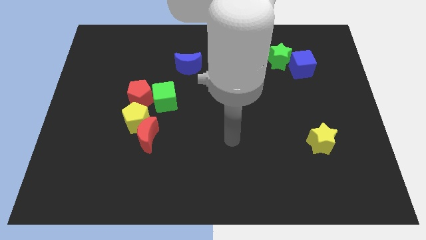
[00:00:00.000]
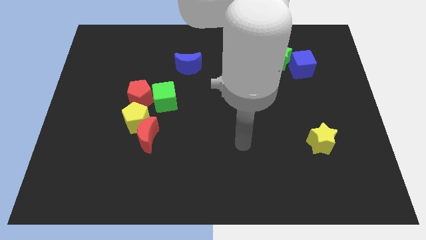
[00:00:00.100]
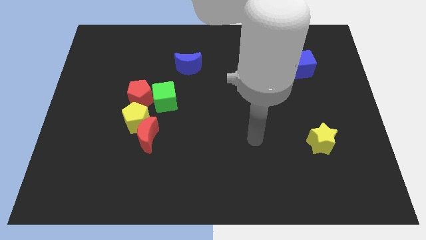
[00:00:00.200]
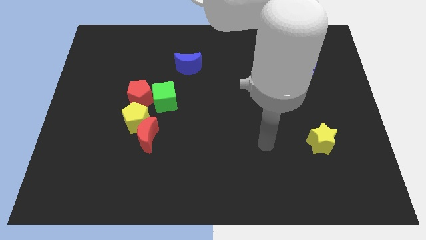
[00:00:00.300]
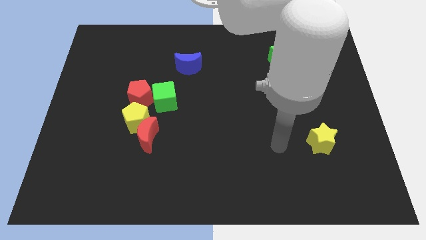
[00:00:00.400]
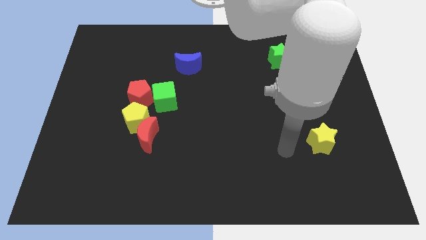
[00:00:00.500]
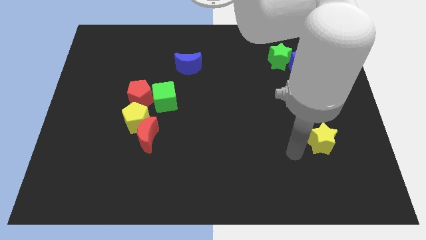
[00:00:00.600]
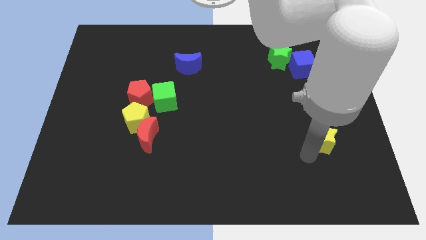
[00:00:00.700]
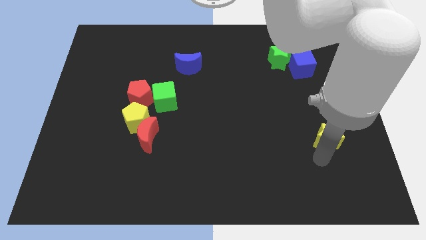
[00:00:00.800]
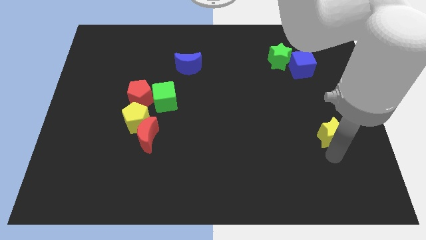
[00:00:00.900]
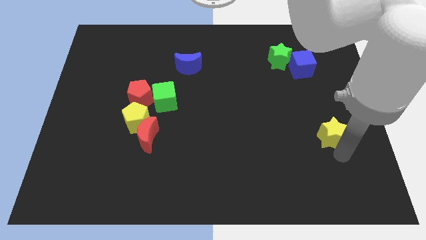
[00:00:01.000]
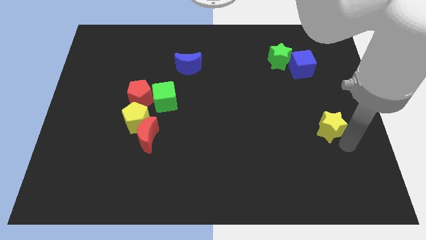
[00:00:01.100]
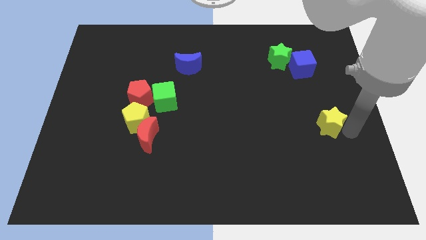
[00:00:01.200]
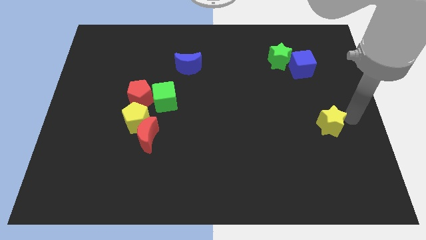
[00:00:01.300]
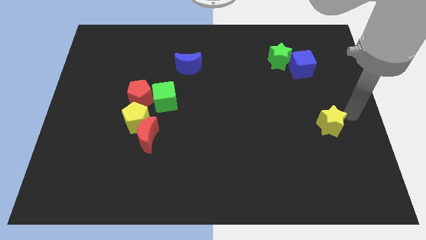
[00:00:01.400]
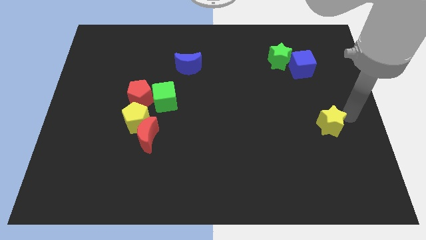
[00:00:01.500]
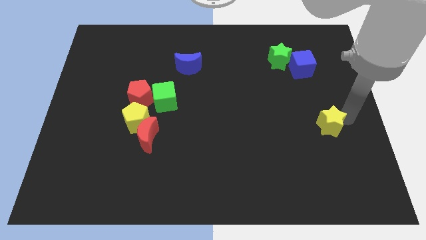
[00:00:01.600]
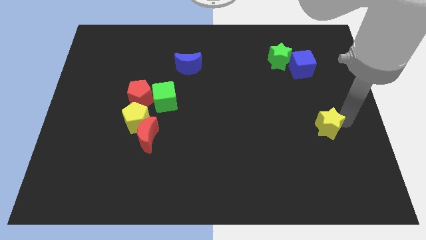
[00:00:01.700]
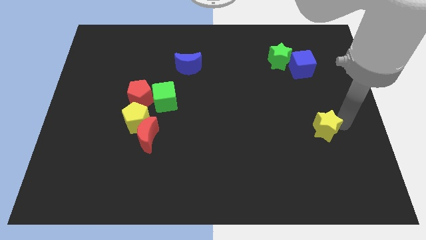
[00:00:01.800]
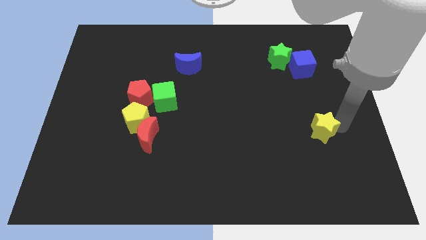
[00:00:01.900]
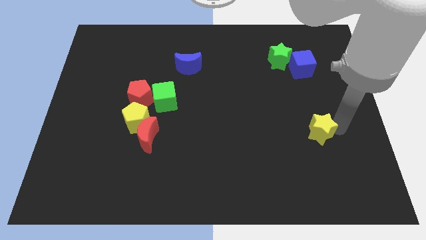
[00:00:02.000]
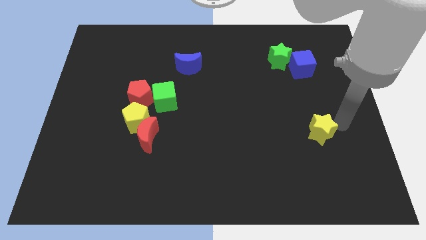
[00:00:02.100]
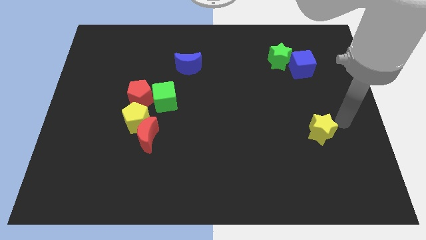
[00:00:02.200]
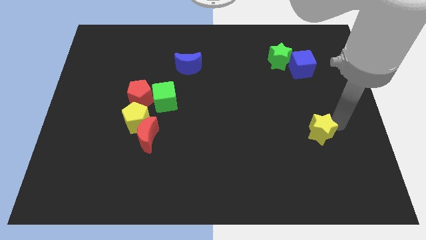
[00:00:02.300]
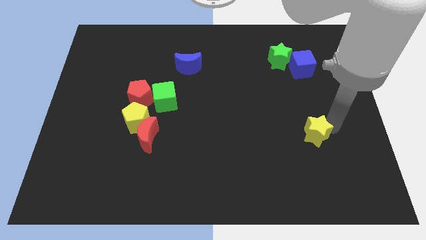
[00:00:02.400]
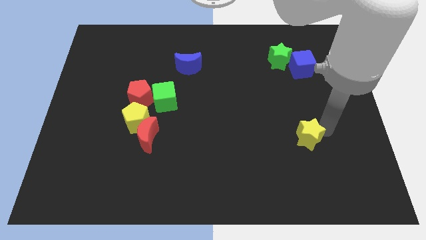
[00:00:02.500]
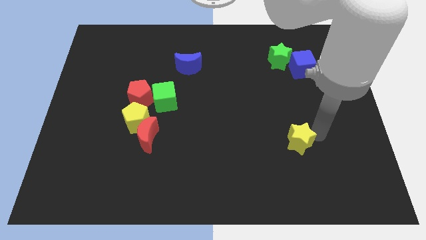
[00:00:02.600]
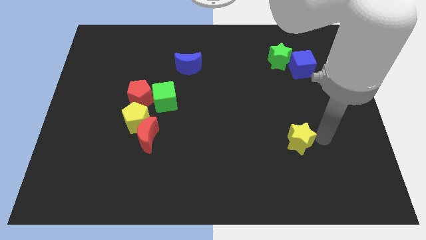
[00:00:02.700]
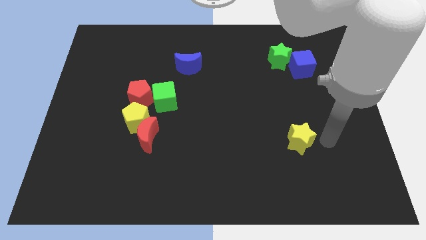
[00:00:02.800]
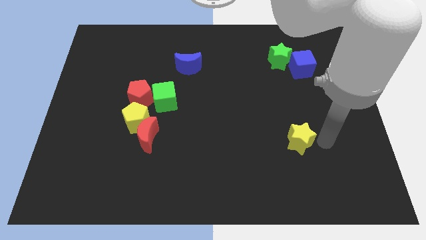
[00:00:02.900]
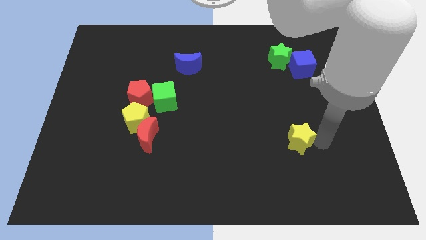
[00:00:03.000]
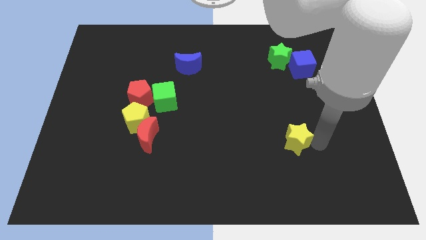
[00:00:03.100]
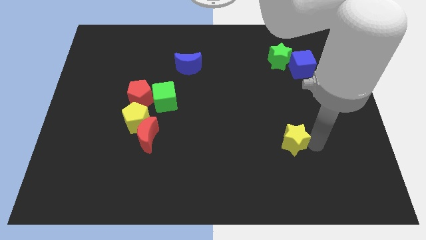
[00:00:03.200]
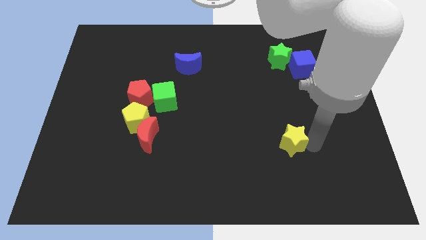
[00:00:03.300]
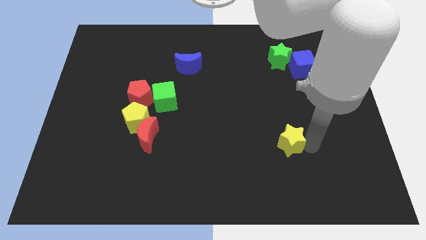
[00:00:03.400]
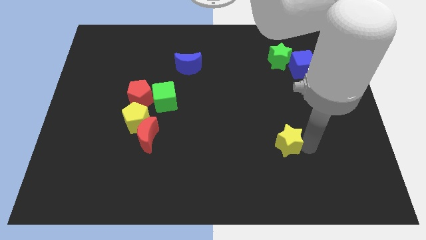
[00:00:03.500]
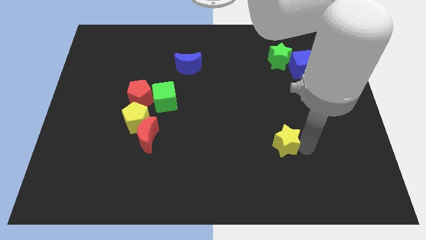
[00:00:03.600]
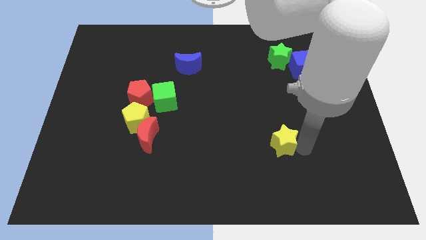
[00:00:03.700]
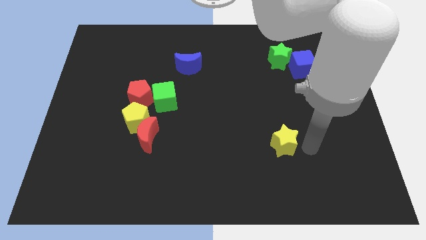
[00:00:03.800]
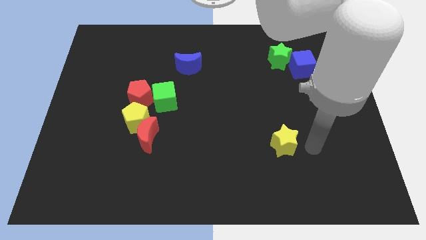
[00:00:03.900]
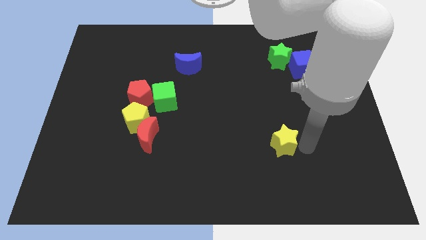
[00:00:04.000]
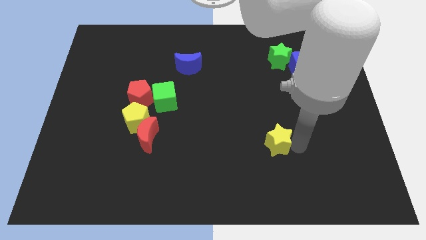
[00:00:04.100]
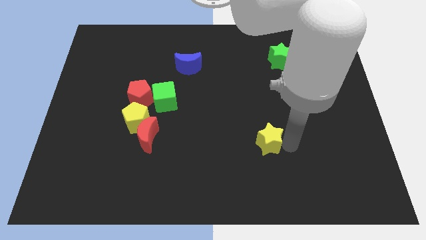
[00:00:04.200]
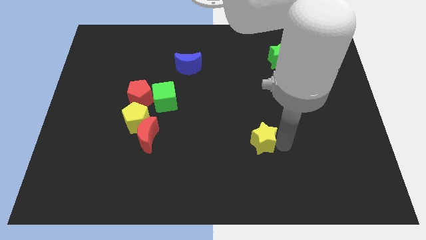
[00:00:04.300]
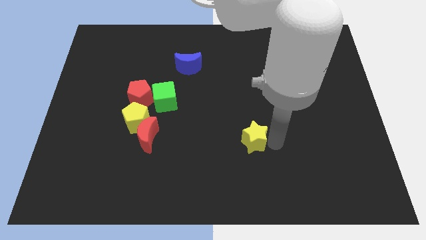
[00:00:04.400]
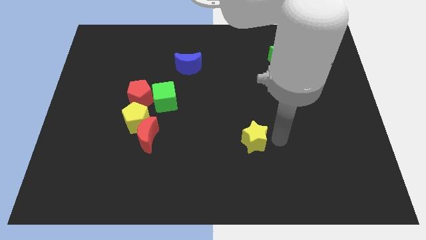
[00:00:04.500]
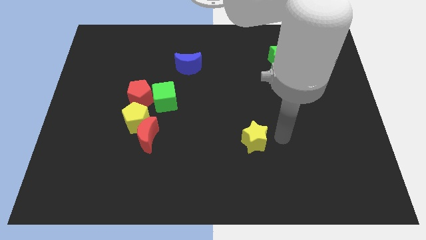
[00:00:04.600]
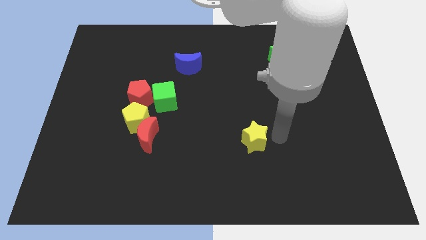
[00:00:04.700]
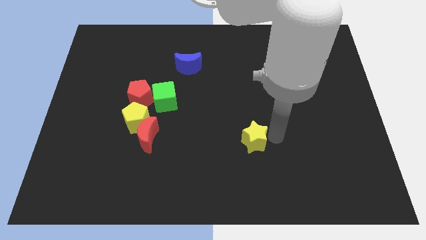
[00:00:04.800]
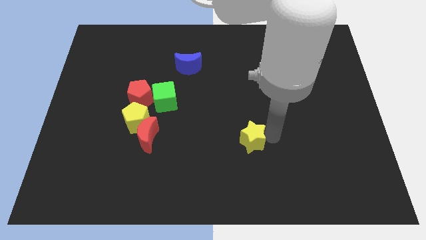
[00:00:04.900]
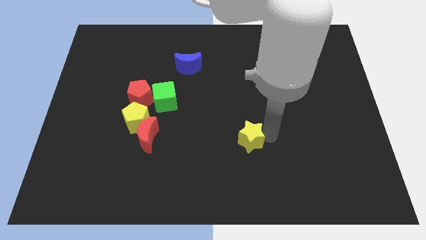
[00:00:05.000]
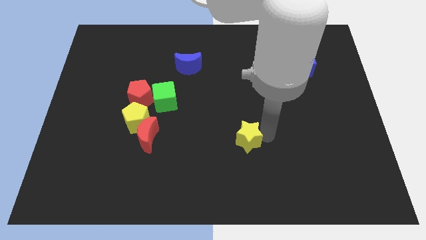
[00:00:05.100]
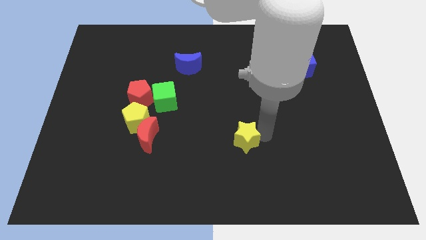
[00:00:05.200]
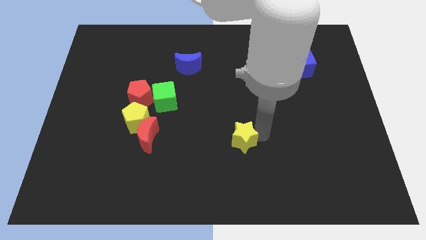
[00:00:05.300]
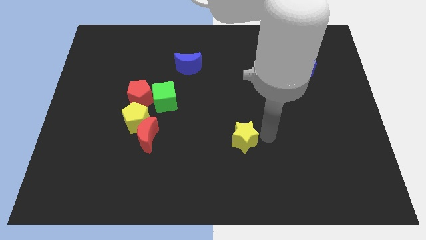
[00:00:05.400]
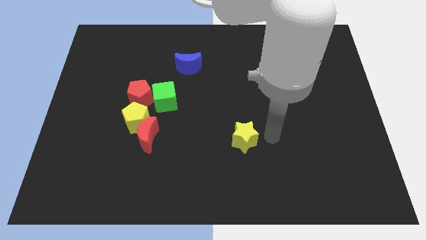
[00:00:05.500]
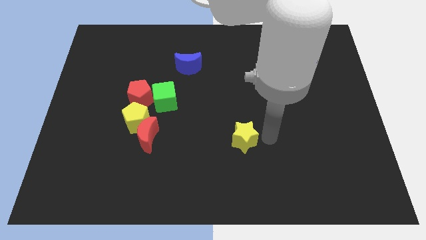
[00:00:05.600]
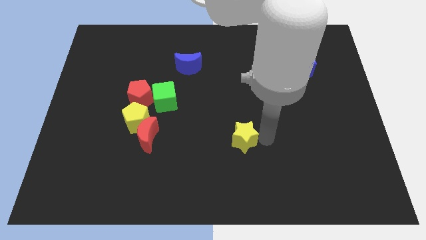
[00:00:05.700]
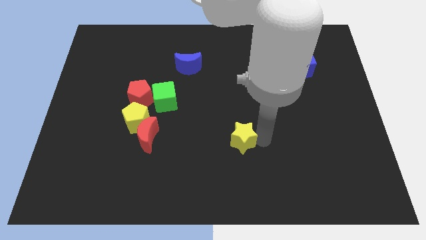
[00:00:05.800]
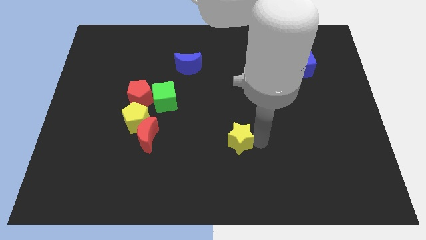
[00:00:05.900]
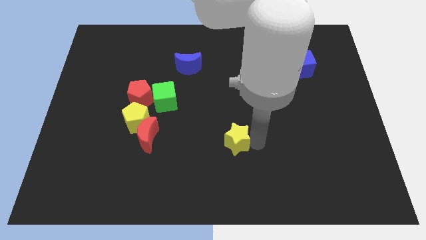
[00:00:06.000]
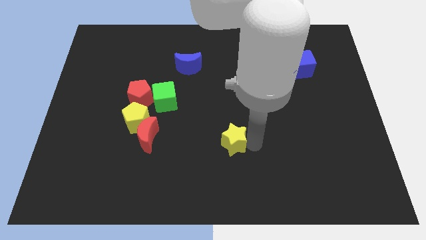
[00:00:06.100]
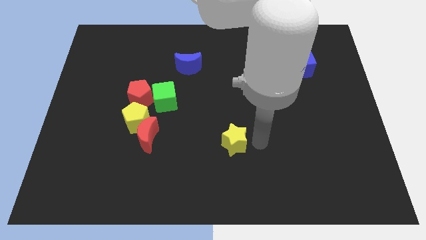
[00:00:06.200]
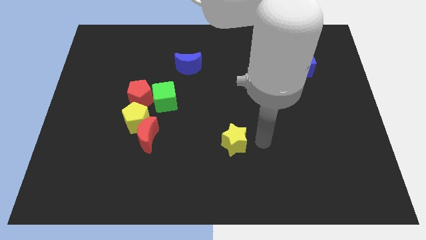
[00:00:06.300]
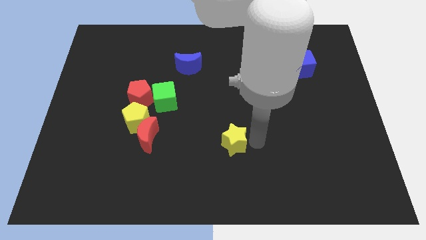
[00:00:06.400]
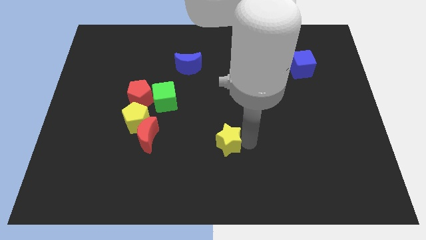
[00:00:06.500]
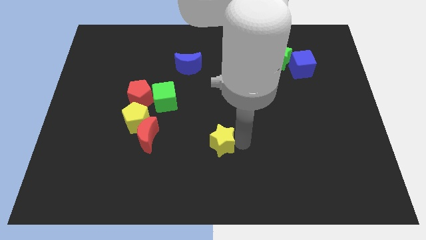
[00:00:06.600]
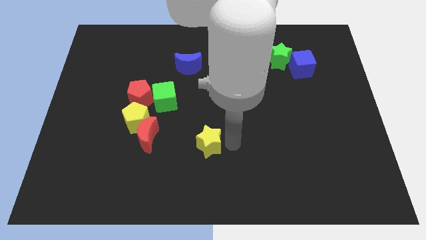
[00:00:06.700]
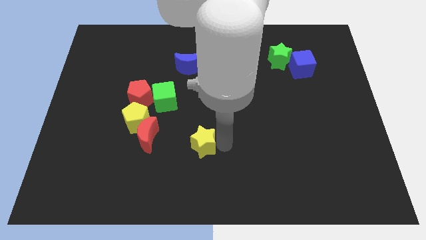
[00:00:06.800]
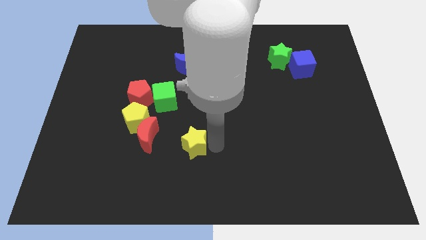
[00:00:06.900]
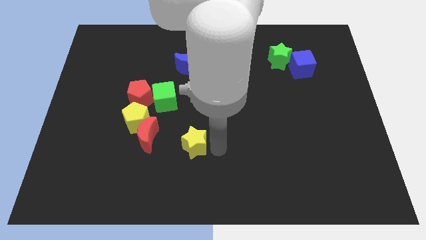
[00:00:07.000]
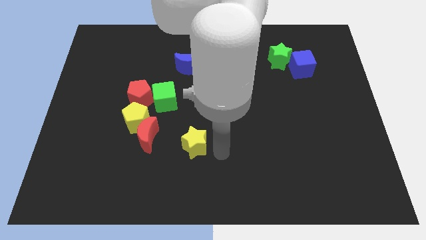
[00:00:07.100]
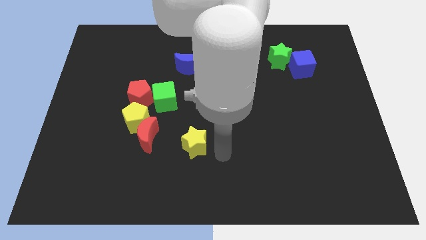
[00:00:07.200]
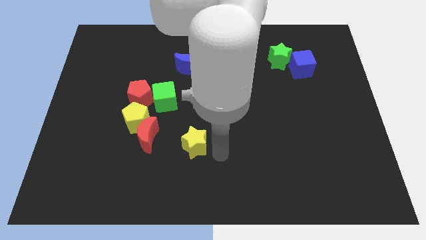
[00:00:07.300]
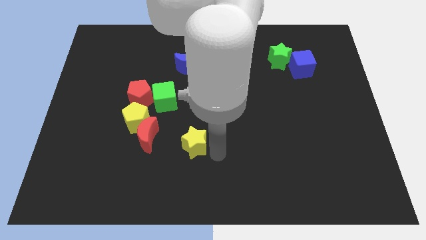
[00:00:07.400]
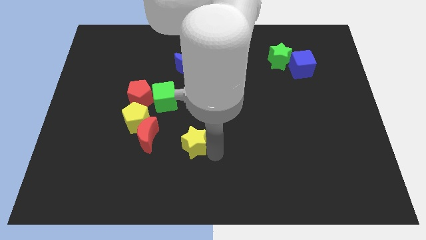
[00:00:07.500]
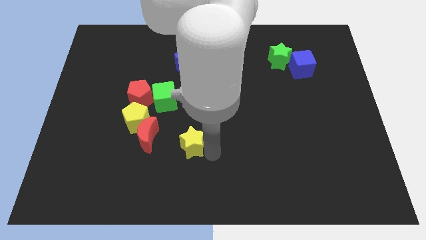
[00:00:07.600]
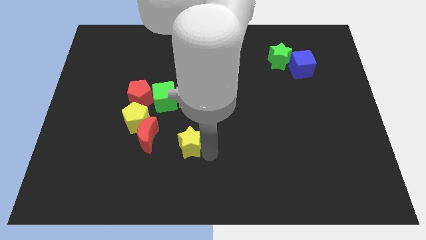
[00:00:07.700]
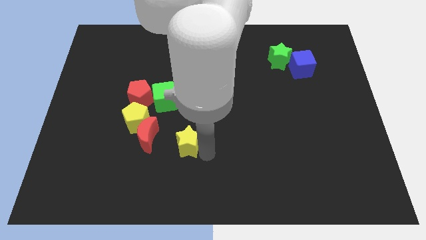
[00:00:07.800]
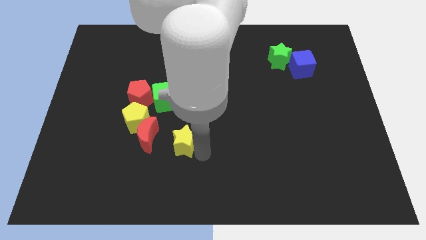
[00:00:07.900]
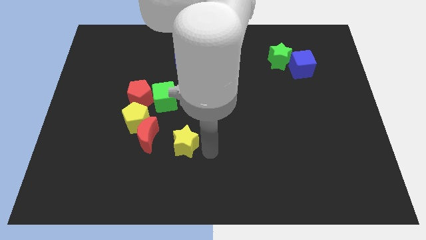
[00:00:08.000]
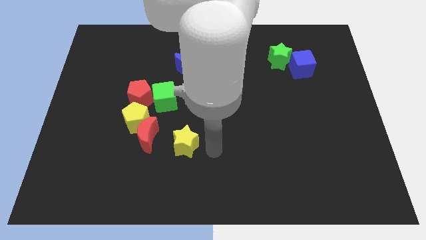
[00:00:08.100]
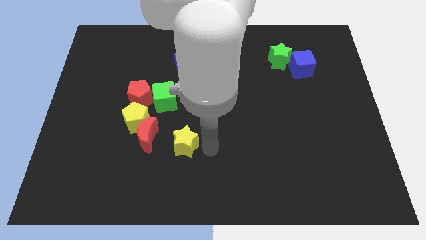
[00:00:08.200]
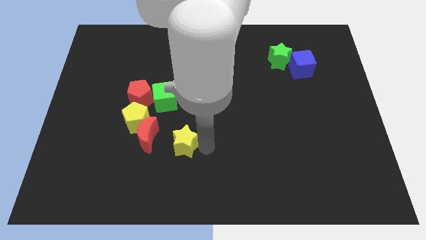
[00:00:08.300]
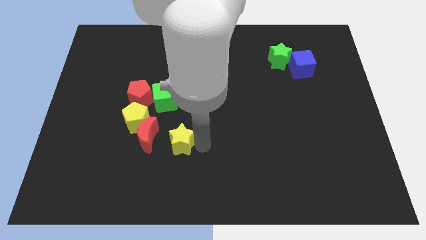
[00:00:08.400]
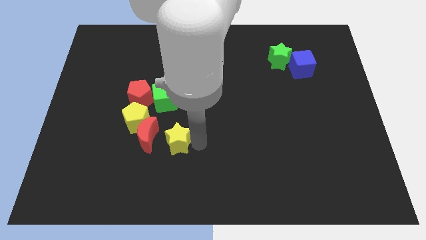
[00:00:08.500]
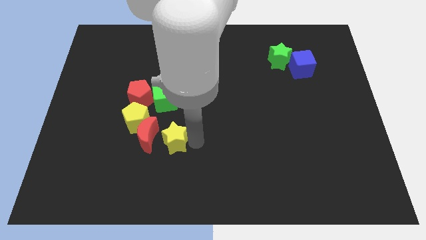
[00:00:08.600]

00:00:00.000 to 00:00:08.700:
push the yellow star close to the red moon
